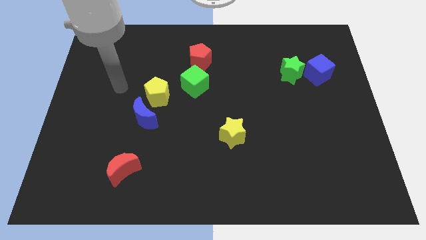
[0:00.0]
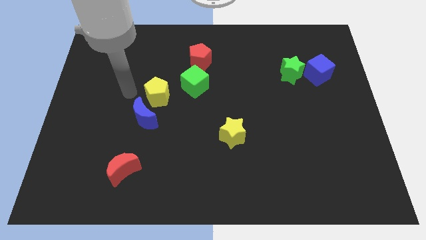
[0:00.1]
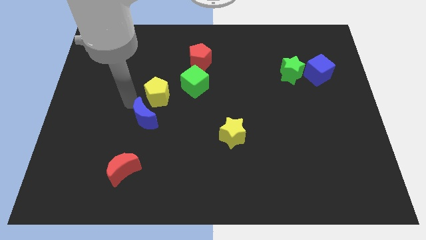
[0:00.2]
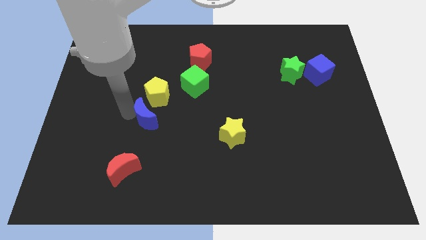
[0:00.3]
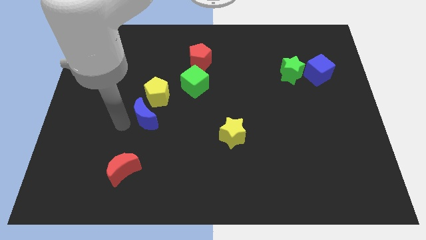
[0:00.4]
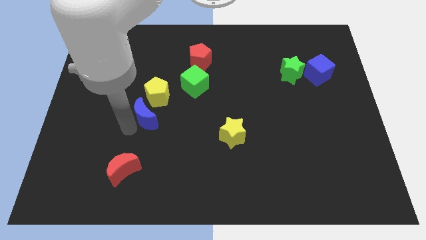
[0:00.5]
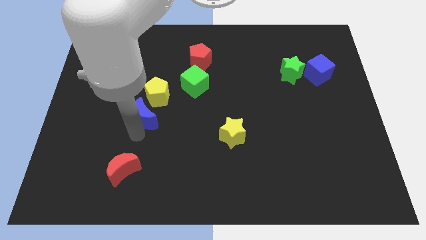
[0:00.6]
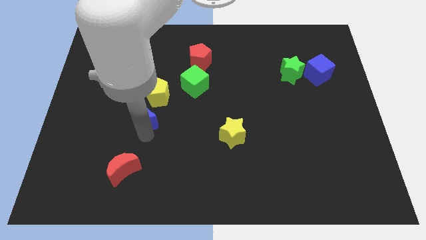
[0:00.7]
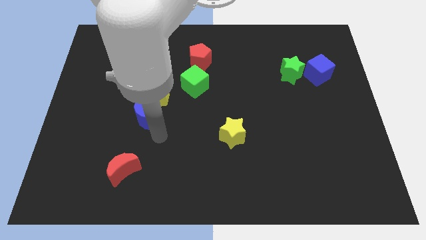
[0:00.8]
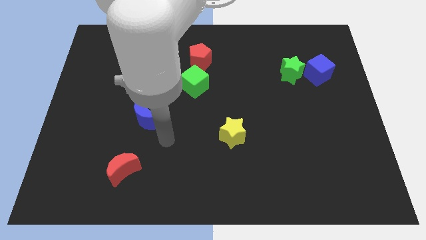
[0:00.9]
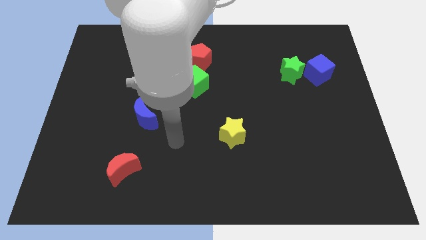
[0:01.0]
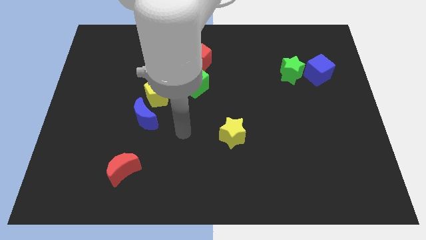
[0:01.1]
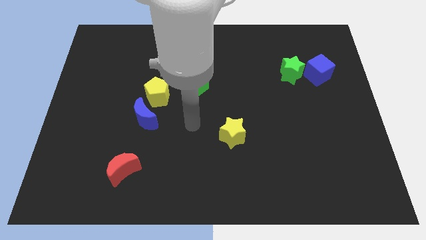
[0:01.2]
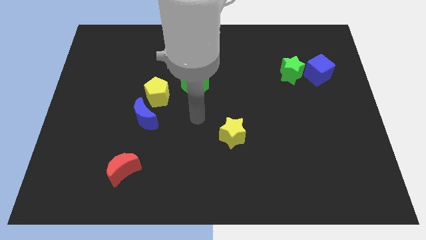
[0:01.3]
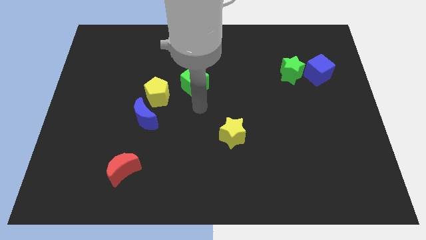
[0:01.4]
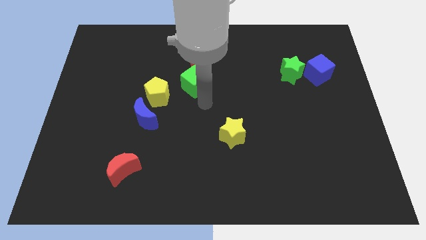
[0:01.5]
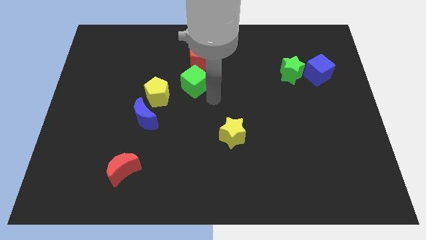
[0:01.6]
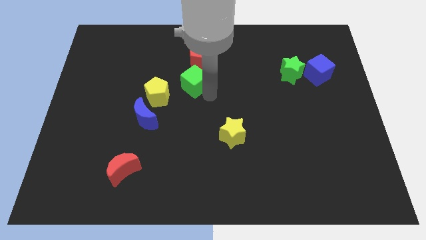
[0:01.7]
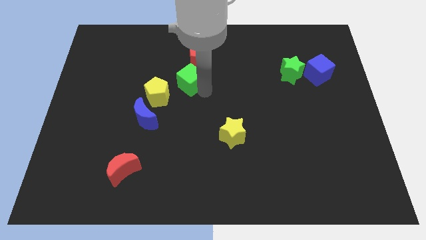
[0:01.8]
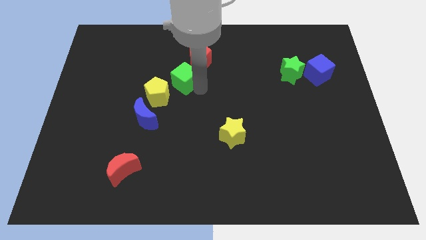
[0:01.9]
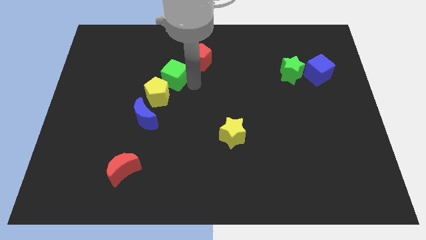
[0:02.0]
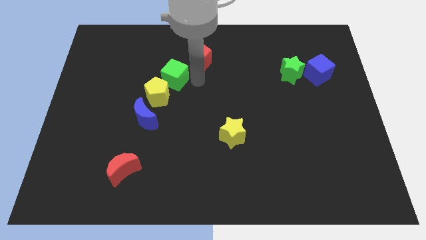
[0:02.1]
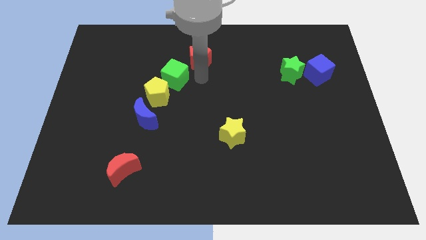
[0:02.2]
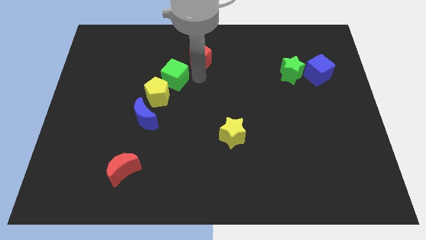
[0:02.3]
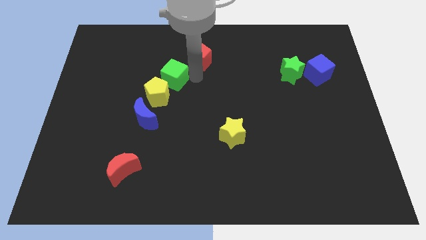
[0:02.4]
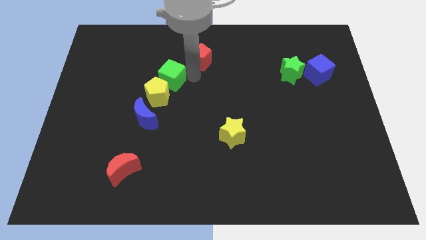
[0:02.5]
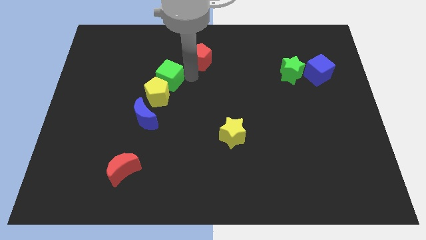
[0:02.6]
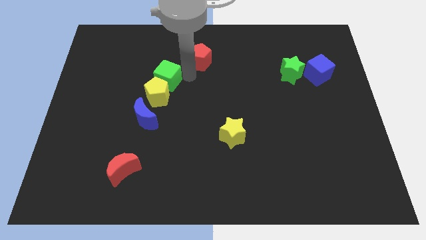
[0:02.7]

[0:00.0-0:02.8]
slightly move the green cube to the left

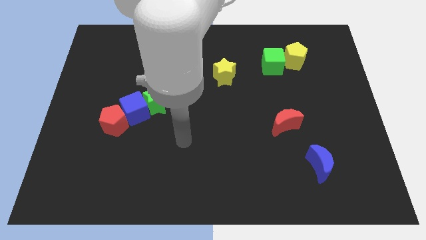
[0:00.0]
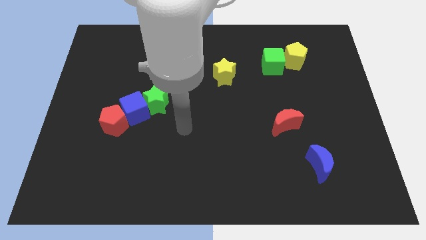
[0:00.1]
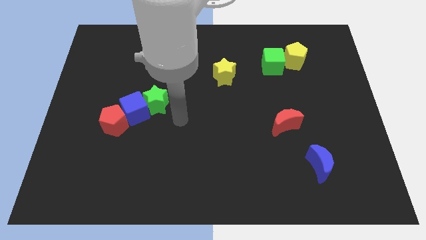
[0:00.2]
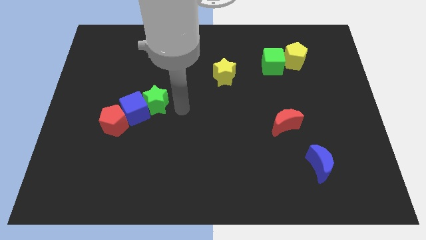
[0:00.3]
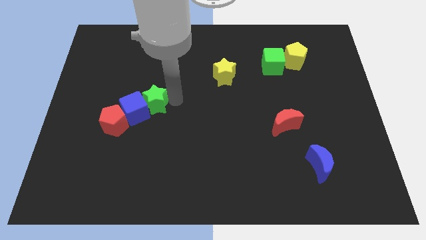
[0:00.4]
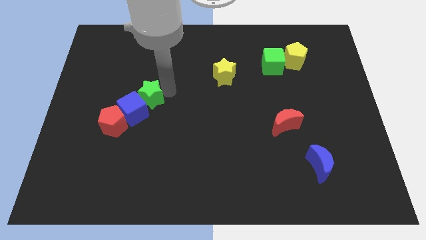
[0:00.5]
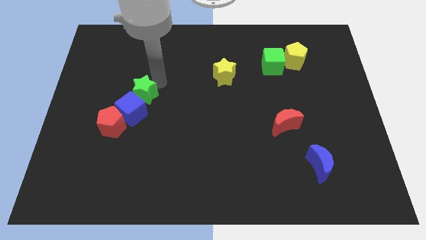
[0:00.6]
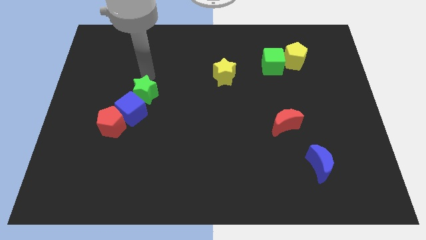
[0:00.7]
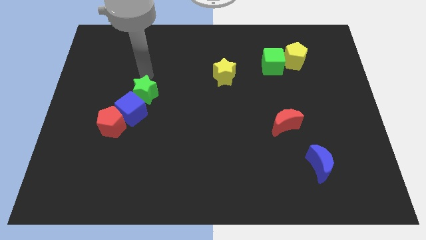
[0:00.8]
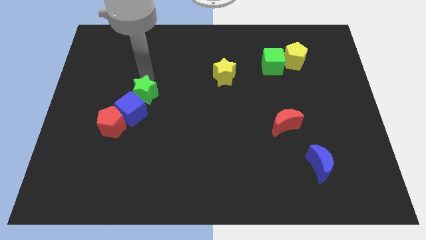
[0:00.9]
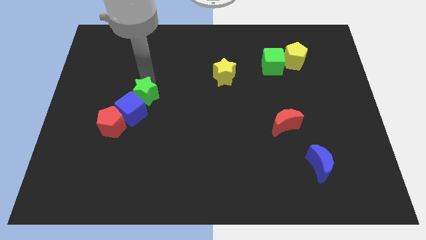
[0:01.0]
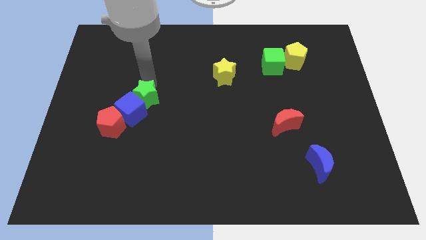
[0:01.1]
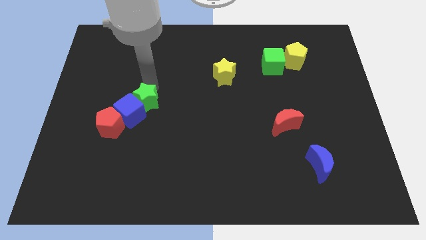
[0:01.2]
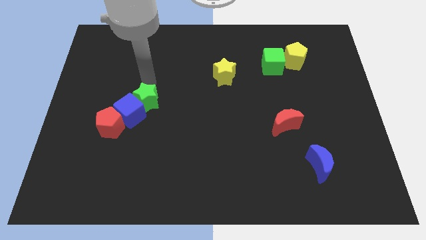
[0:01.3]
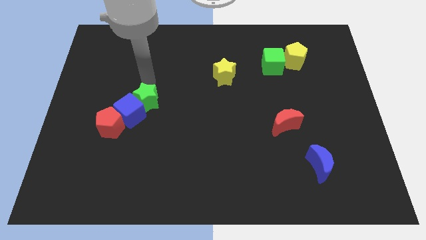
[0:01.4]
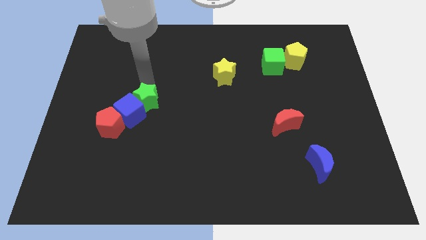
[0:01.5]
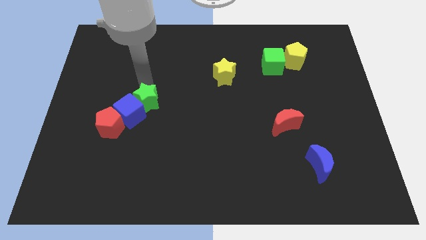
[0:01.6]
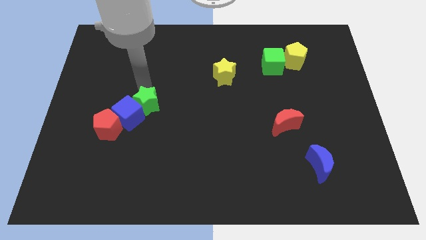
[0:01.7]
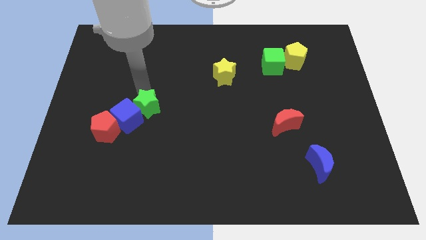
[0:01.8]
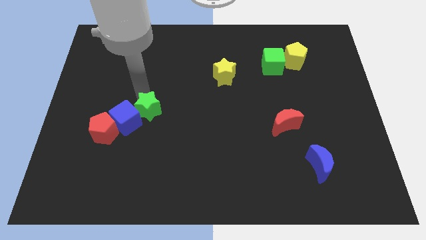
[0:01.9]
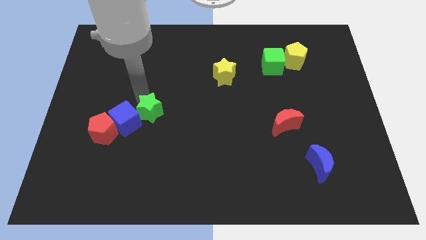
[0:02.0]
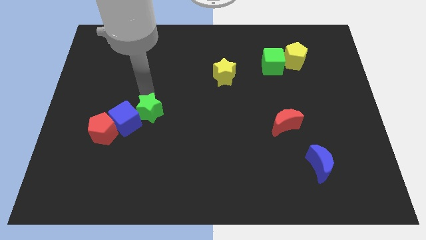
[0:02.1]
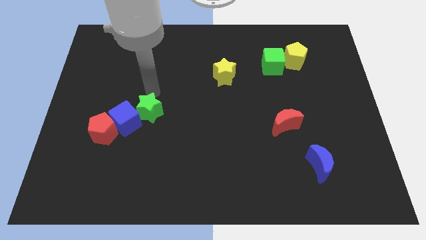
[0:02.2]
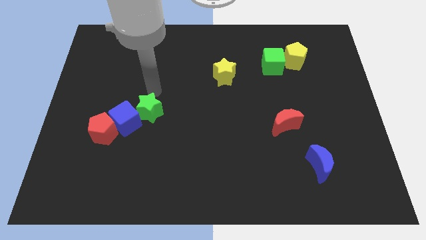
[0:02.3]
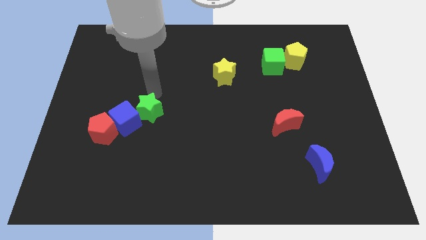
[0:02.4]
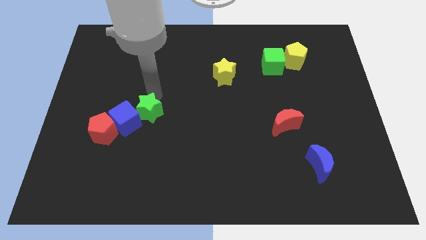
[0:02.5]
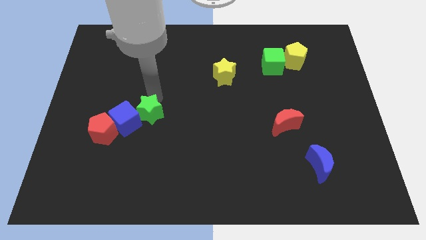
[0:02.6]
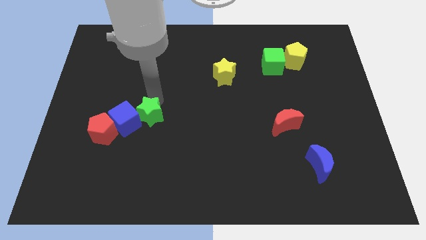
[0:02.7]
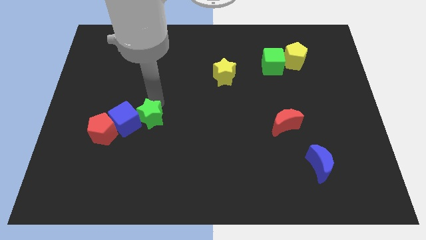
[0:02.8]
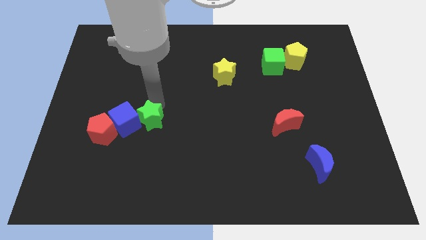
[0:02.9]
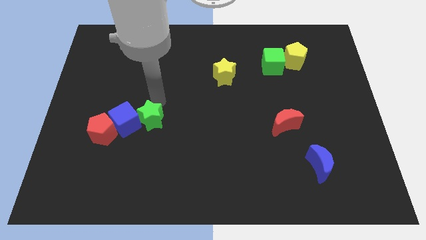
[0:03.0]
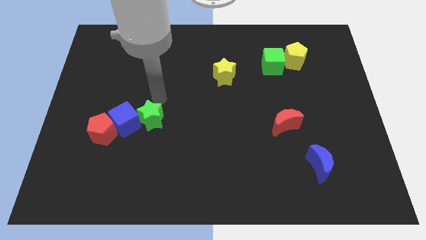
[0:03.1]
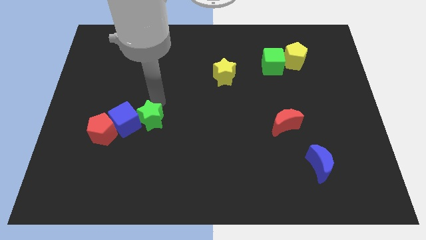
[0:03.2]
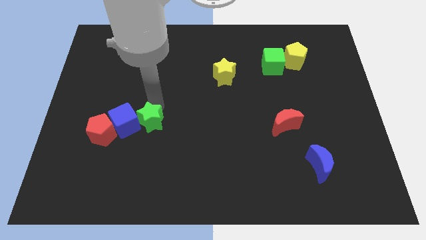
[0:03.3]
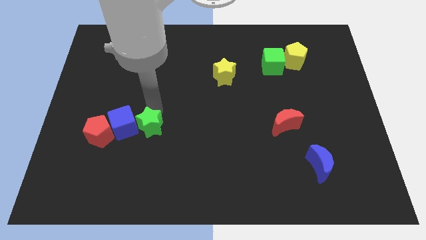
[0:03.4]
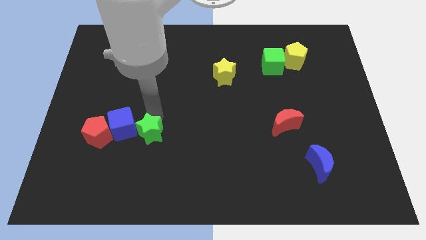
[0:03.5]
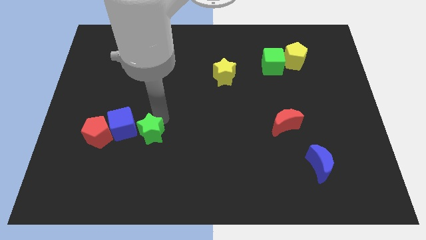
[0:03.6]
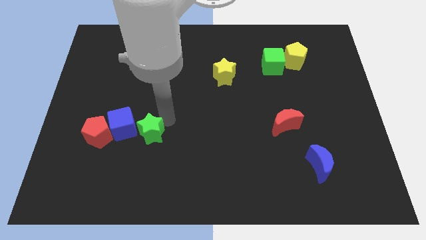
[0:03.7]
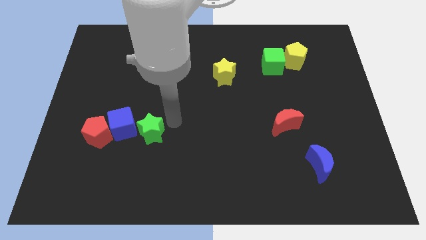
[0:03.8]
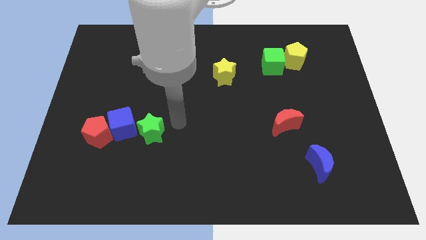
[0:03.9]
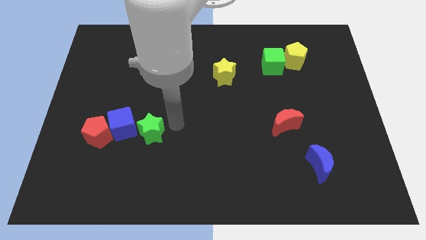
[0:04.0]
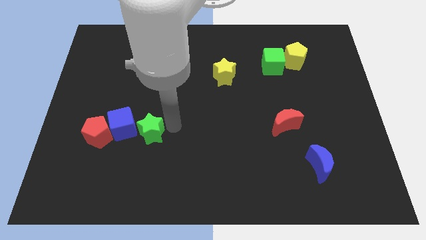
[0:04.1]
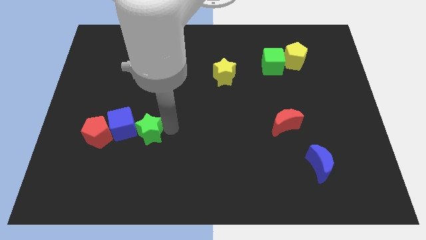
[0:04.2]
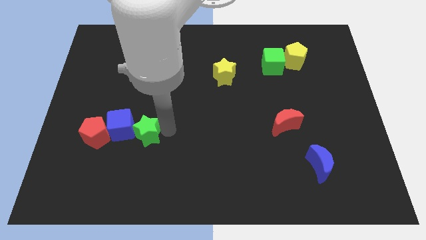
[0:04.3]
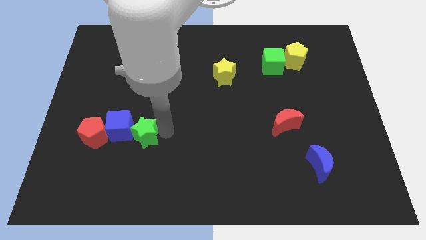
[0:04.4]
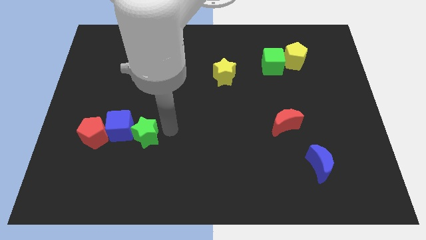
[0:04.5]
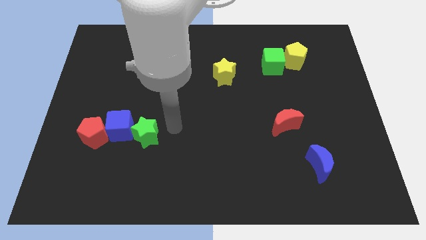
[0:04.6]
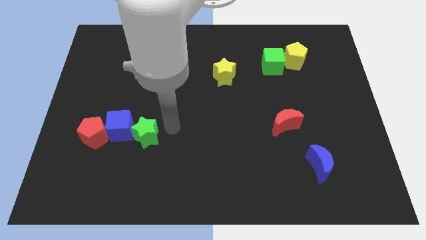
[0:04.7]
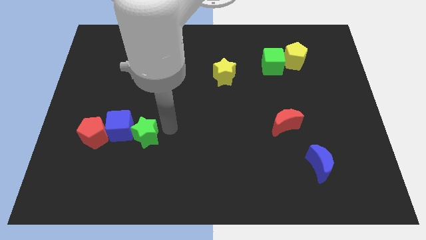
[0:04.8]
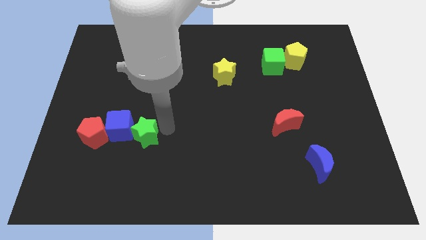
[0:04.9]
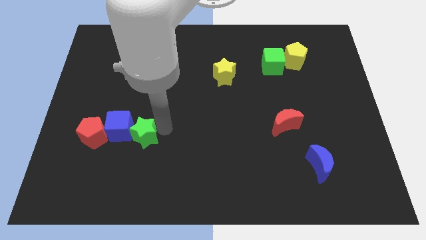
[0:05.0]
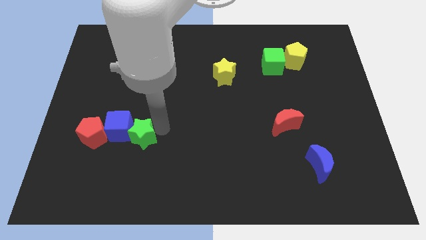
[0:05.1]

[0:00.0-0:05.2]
push the green star diagonally down and left a little bit
